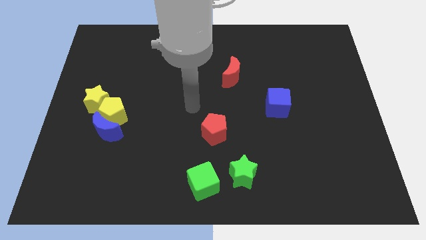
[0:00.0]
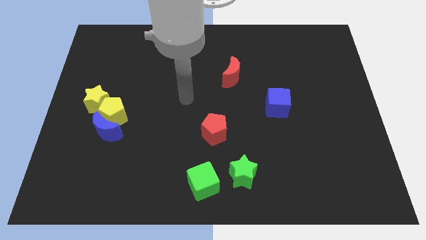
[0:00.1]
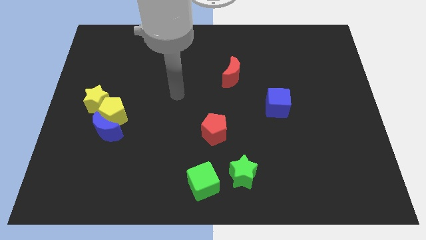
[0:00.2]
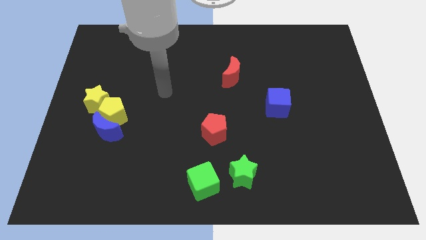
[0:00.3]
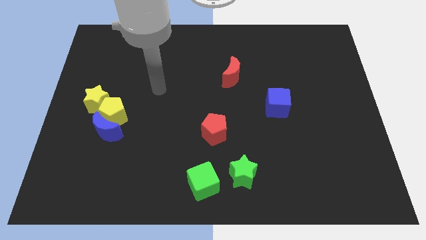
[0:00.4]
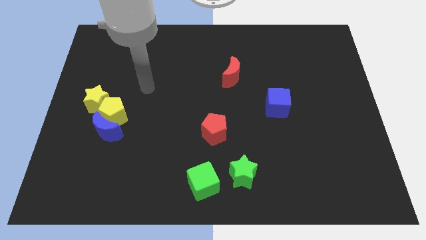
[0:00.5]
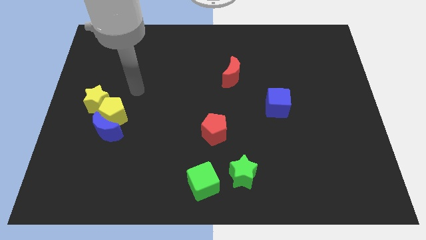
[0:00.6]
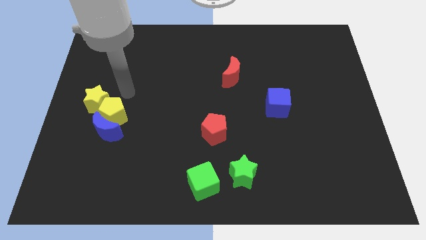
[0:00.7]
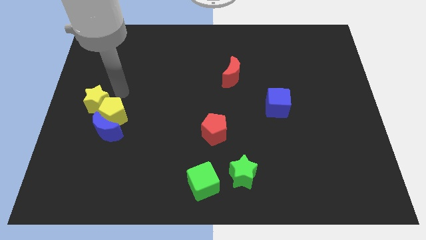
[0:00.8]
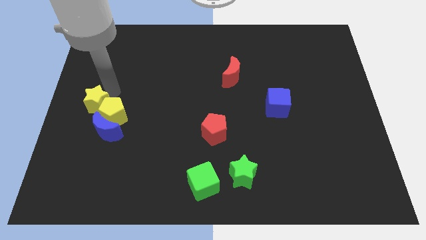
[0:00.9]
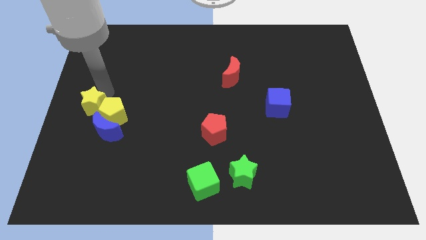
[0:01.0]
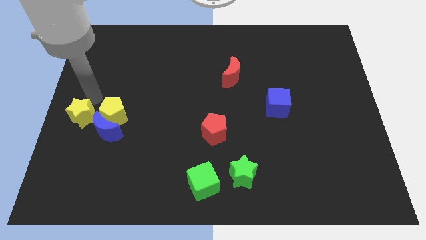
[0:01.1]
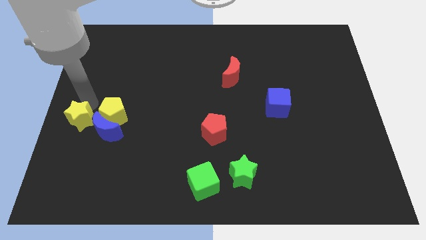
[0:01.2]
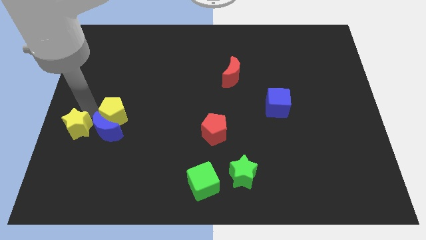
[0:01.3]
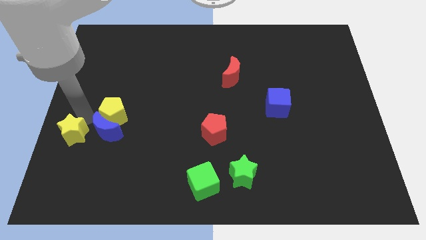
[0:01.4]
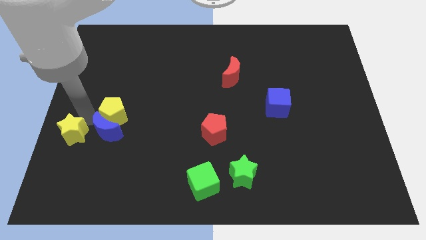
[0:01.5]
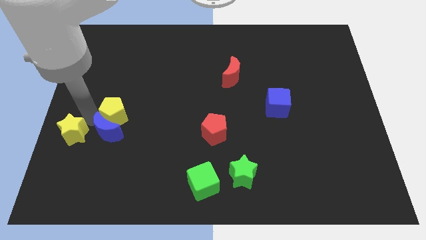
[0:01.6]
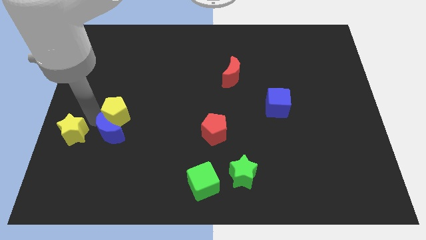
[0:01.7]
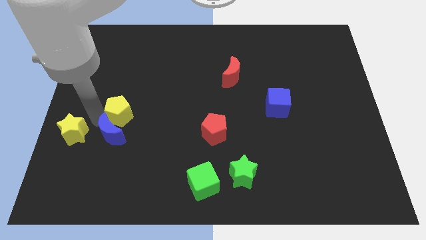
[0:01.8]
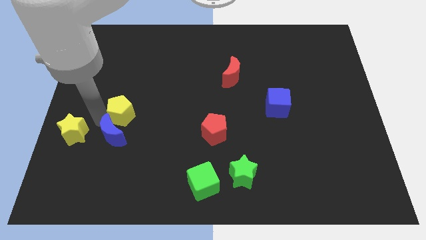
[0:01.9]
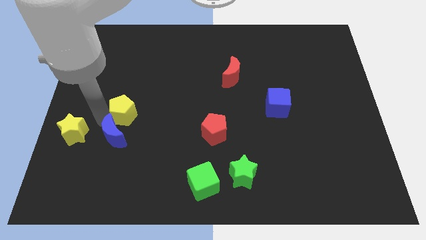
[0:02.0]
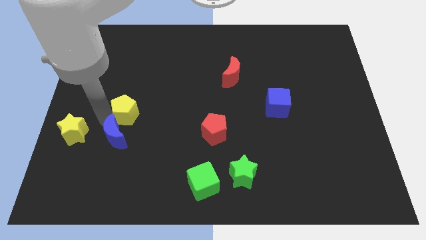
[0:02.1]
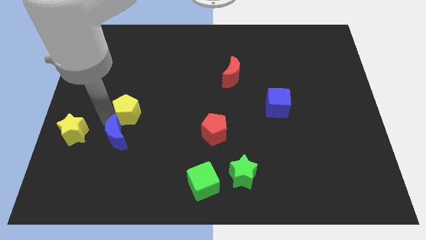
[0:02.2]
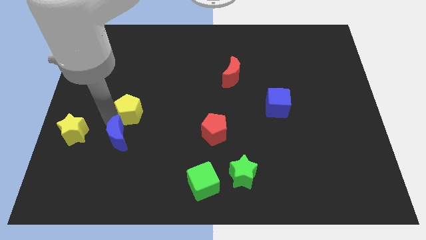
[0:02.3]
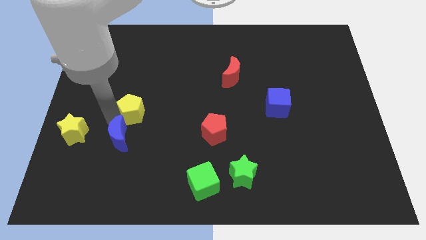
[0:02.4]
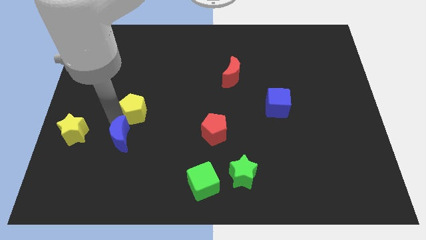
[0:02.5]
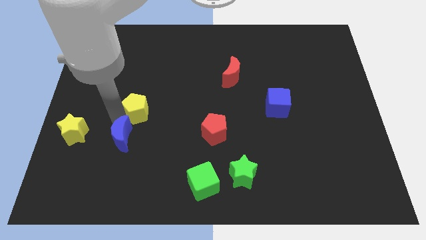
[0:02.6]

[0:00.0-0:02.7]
pull the yellow pentagon apart from the blue moon and yellow star

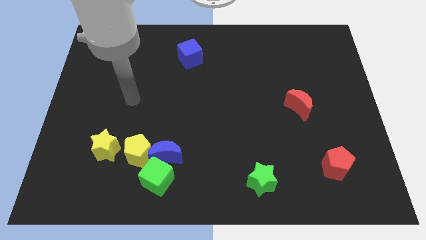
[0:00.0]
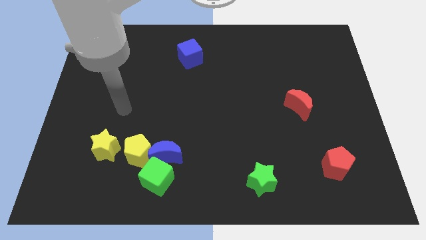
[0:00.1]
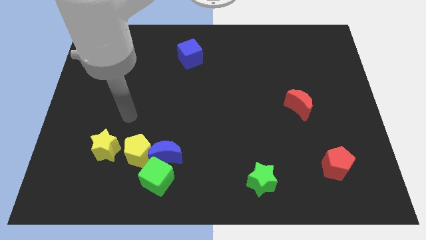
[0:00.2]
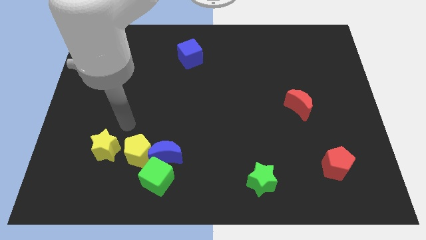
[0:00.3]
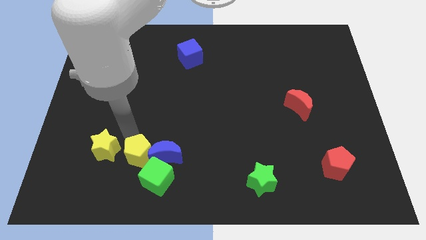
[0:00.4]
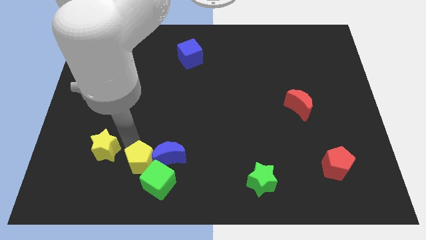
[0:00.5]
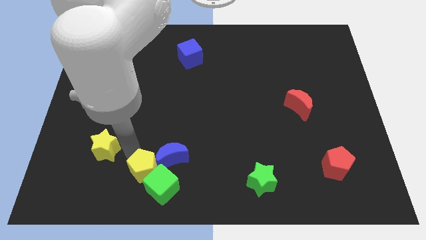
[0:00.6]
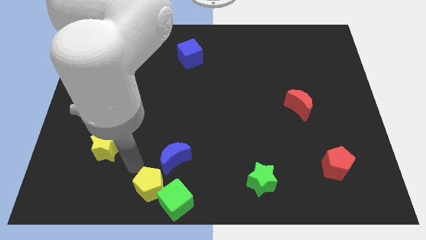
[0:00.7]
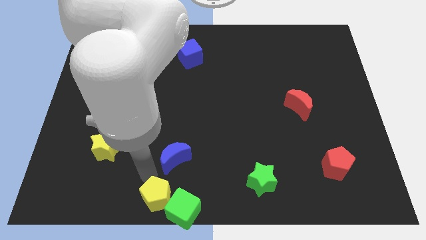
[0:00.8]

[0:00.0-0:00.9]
separate the blue moon from the green cube and yellow pentagon

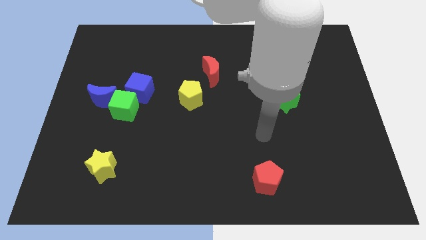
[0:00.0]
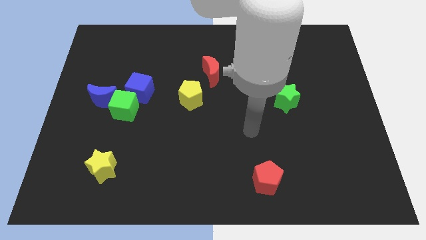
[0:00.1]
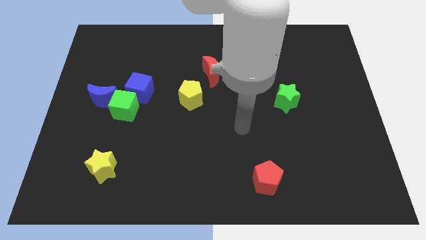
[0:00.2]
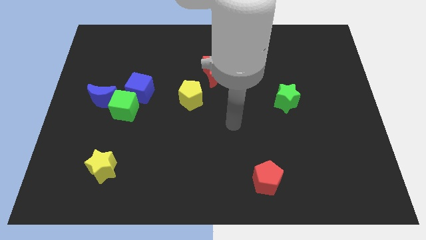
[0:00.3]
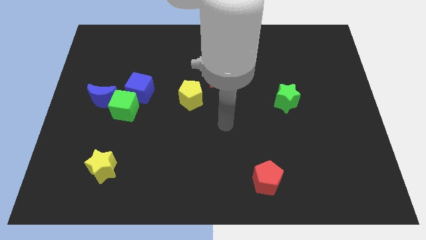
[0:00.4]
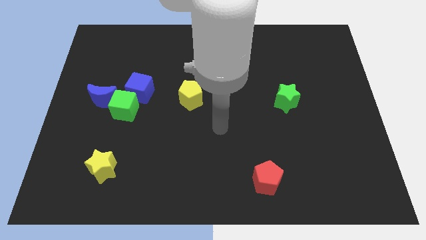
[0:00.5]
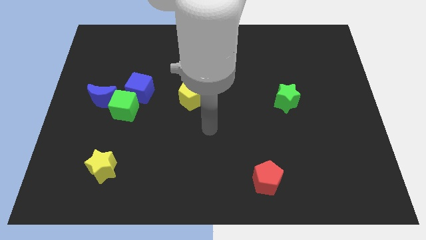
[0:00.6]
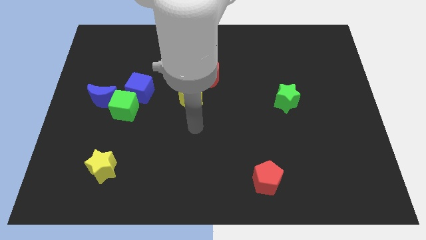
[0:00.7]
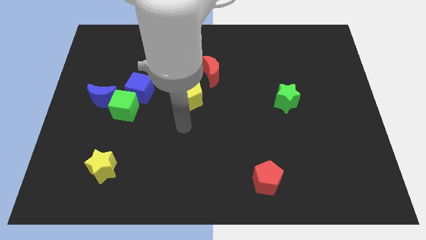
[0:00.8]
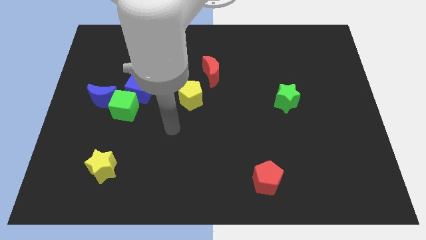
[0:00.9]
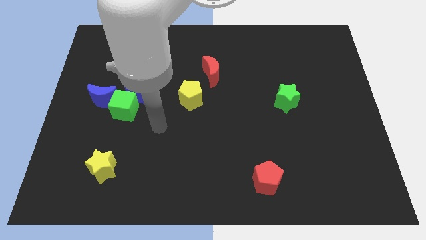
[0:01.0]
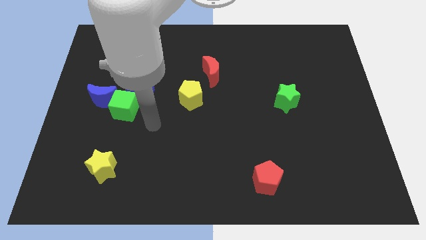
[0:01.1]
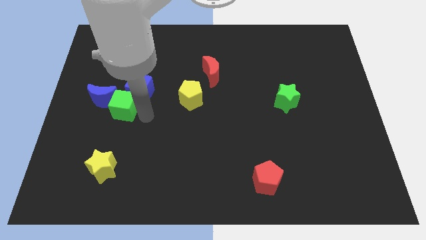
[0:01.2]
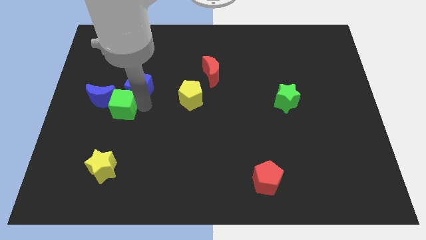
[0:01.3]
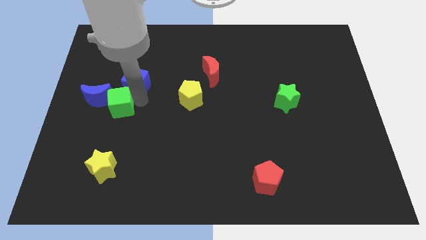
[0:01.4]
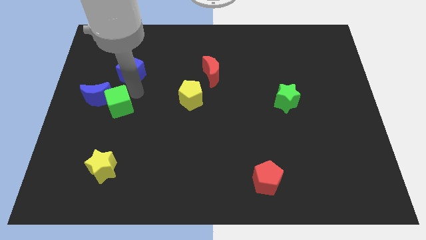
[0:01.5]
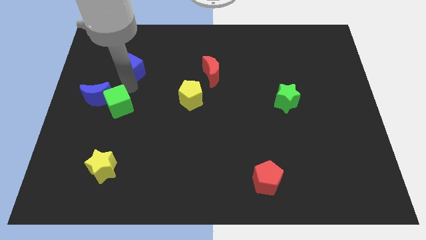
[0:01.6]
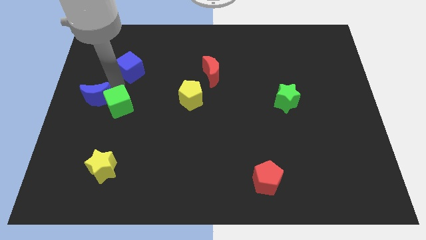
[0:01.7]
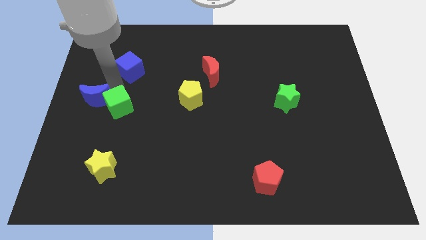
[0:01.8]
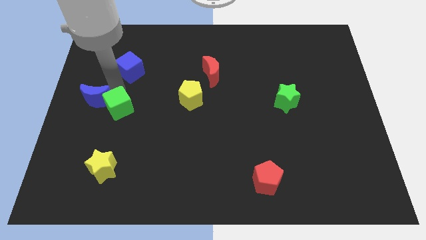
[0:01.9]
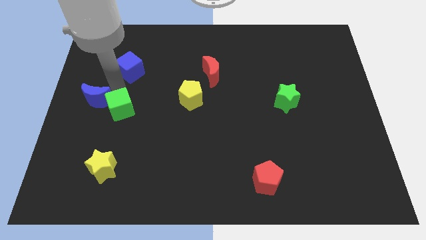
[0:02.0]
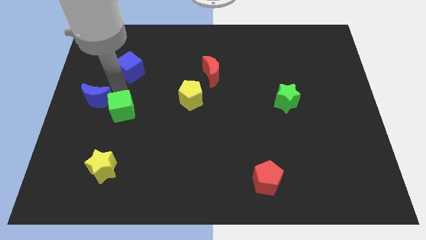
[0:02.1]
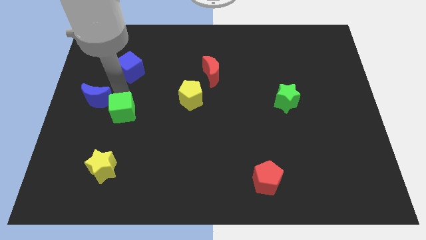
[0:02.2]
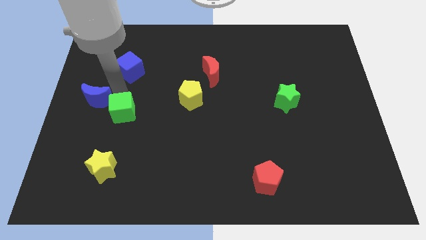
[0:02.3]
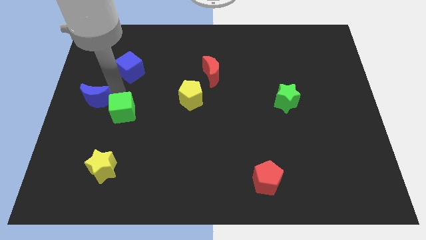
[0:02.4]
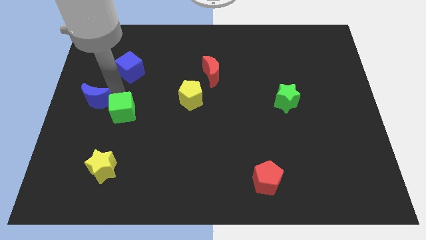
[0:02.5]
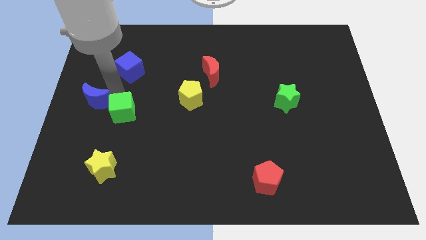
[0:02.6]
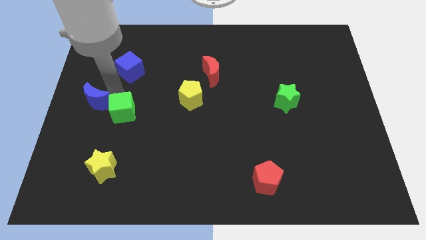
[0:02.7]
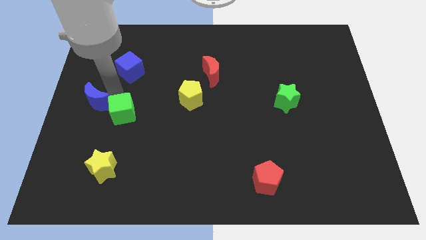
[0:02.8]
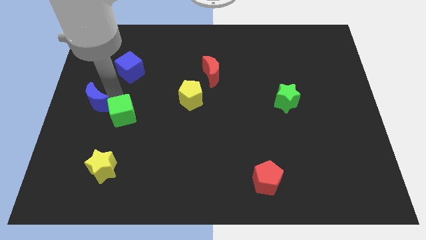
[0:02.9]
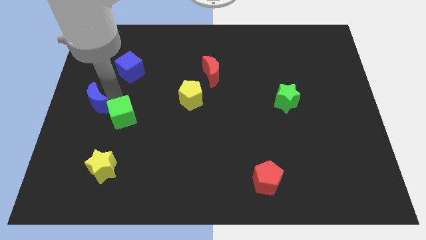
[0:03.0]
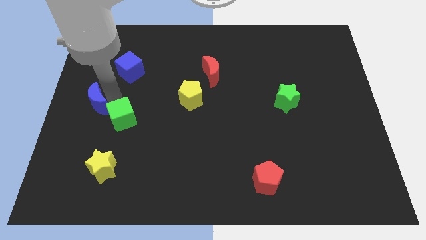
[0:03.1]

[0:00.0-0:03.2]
separate the green cube from the blue cube and blue moon

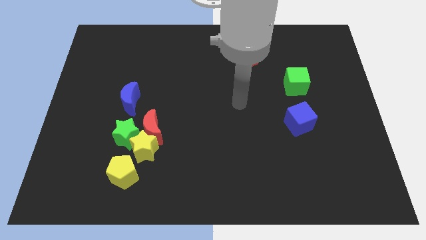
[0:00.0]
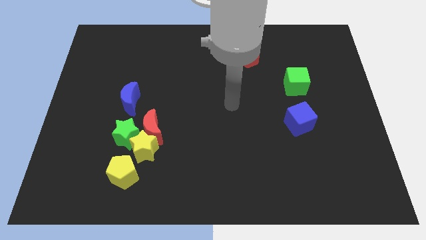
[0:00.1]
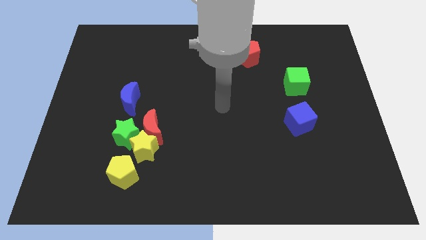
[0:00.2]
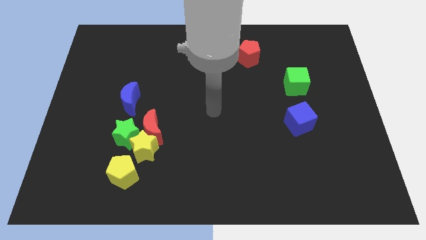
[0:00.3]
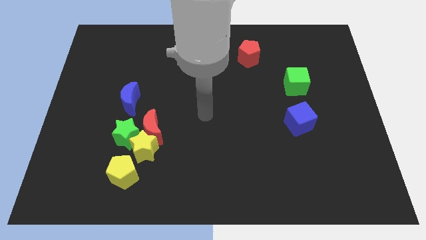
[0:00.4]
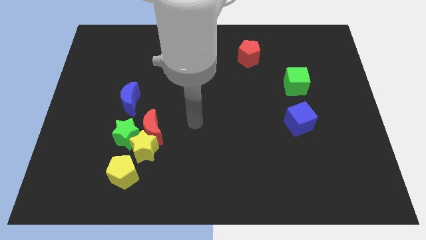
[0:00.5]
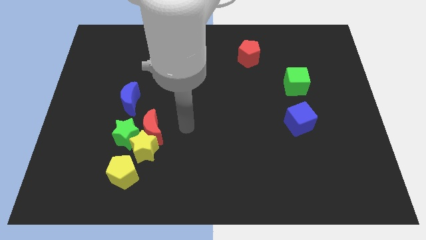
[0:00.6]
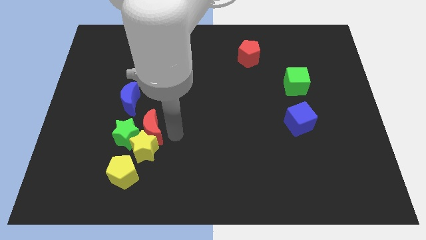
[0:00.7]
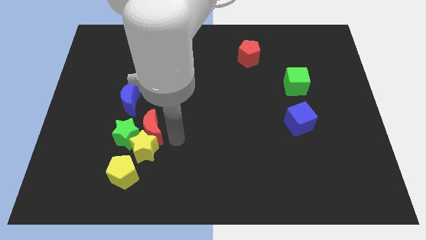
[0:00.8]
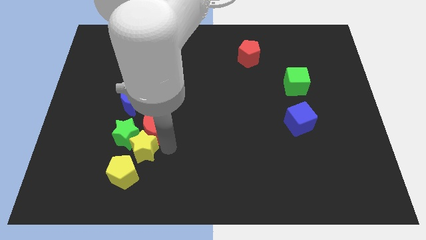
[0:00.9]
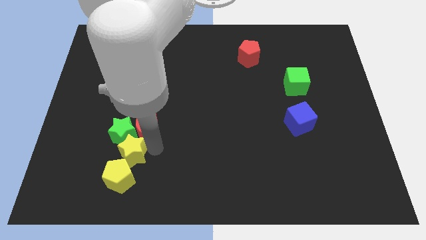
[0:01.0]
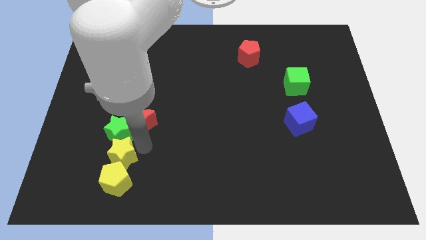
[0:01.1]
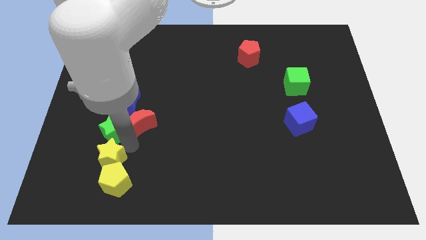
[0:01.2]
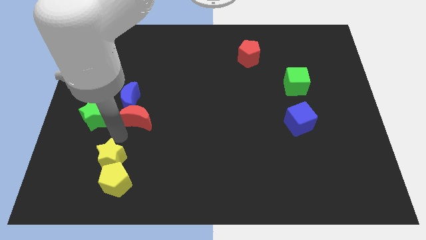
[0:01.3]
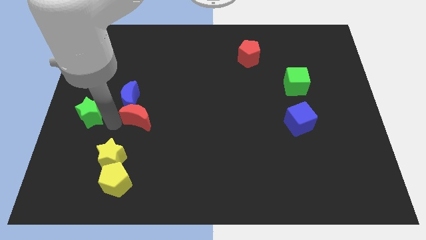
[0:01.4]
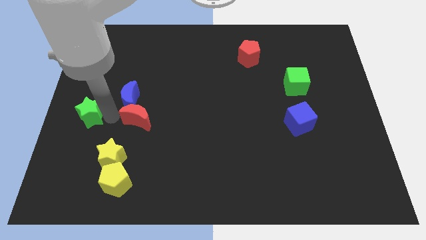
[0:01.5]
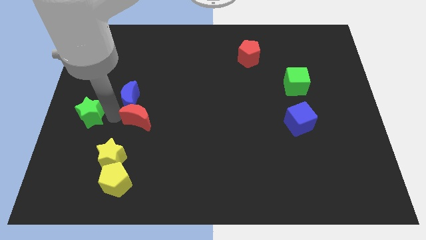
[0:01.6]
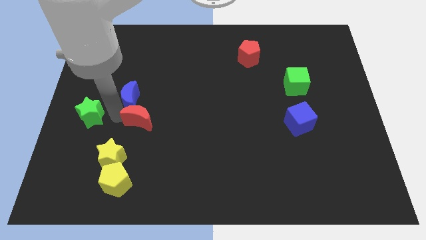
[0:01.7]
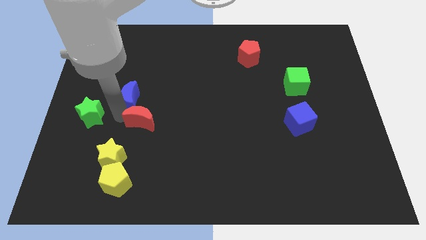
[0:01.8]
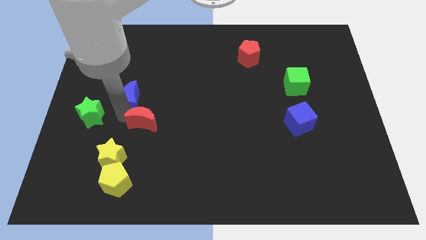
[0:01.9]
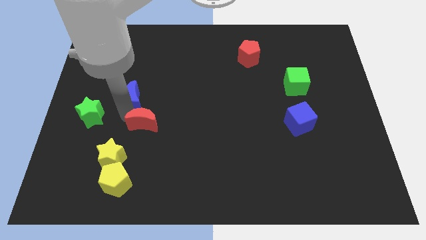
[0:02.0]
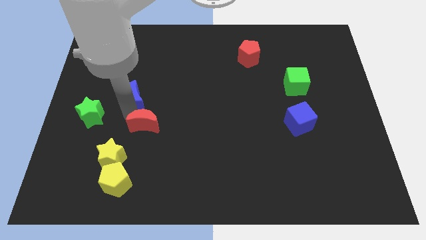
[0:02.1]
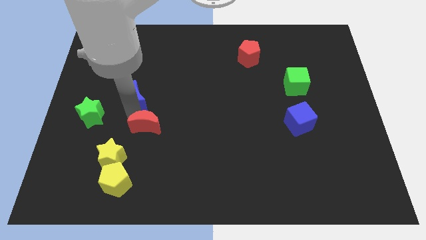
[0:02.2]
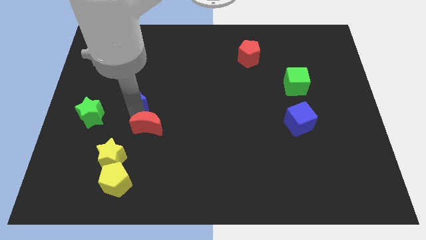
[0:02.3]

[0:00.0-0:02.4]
move the red moon away from the yellow star and green star

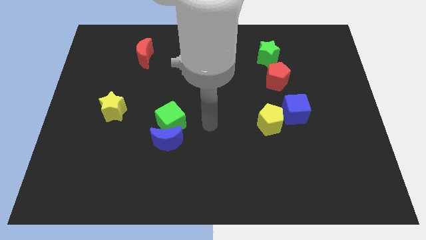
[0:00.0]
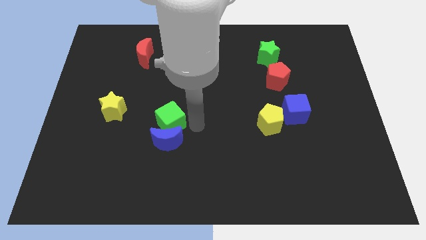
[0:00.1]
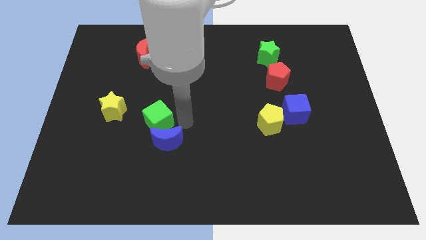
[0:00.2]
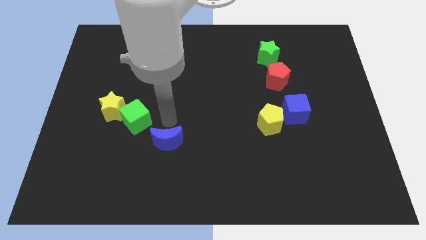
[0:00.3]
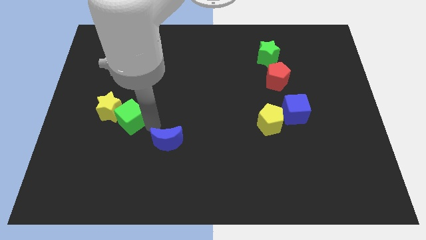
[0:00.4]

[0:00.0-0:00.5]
pull the blue moon apart from the green cube
